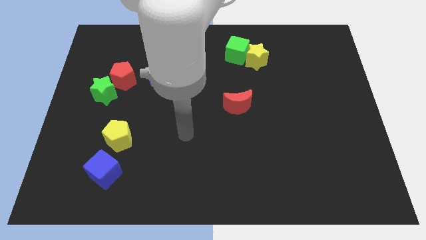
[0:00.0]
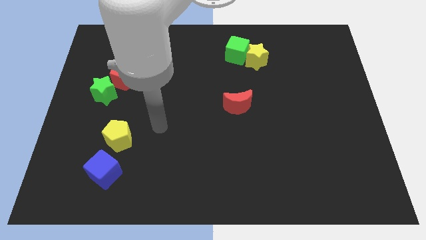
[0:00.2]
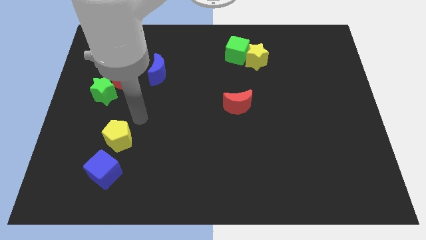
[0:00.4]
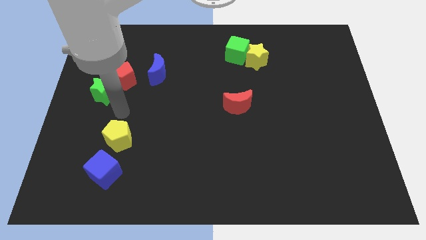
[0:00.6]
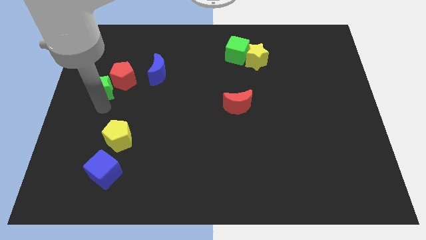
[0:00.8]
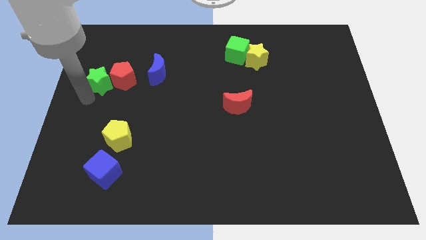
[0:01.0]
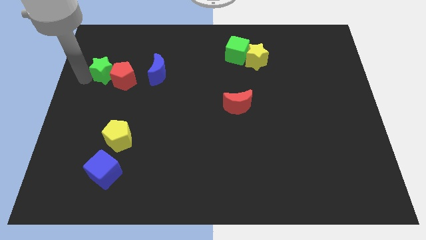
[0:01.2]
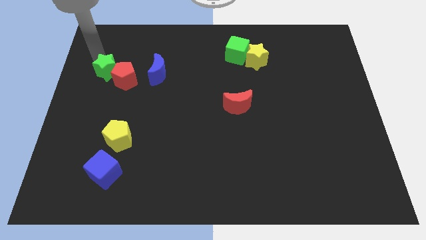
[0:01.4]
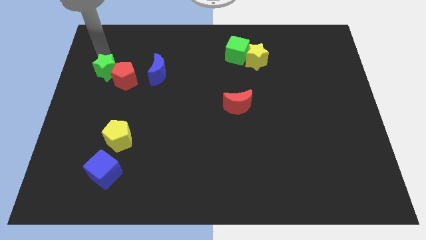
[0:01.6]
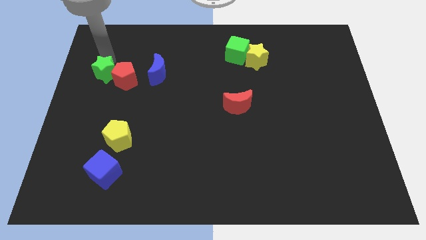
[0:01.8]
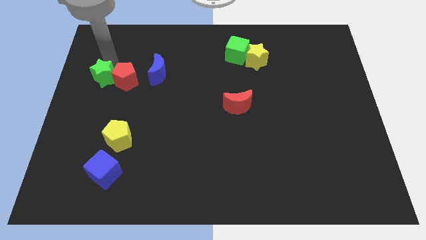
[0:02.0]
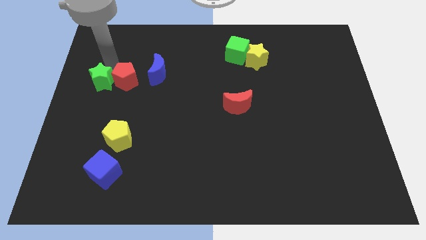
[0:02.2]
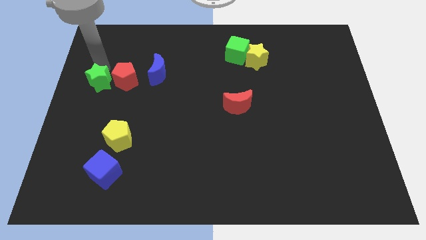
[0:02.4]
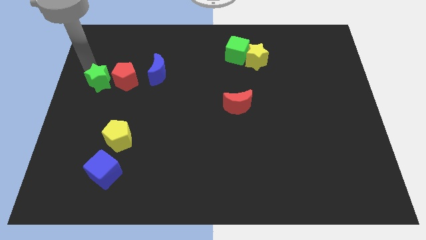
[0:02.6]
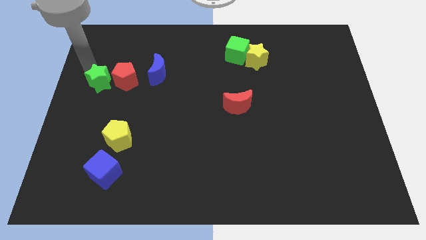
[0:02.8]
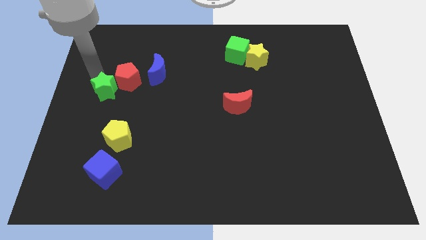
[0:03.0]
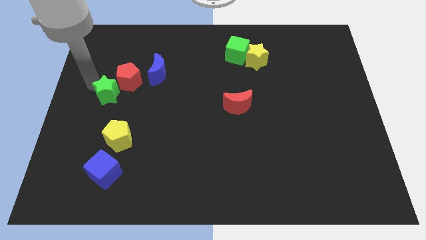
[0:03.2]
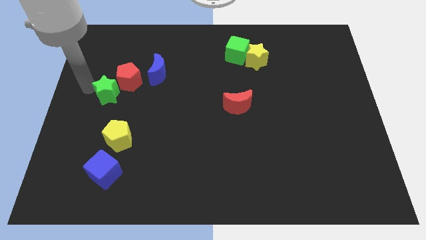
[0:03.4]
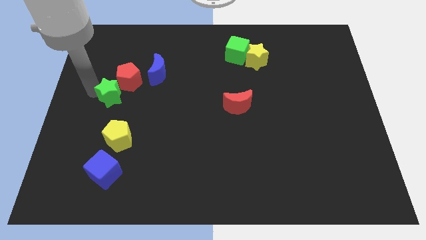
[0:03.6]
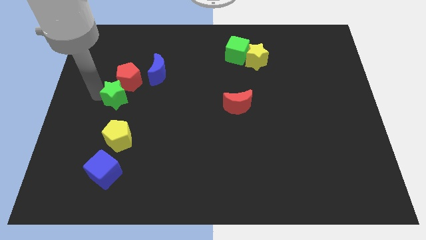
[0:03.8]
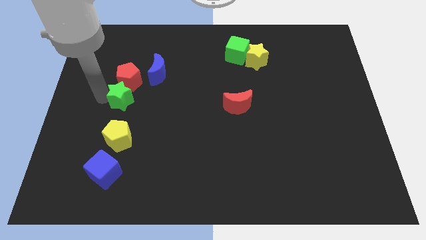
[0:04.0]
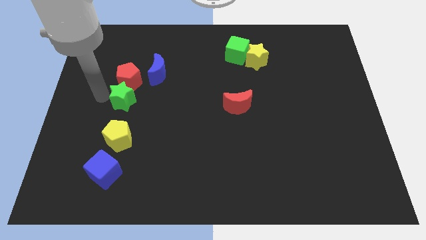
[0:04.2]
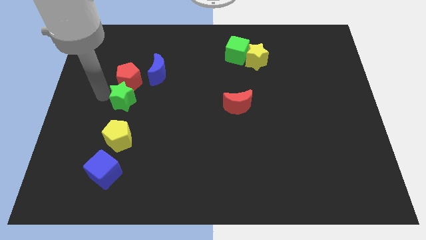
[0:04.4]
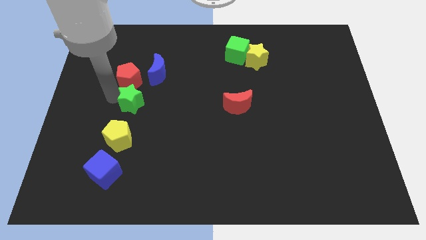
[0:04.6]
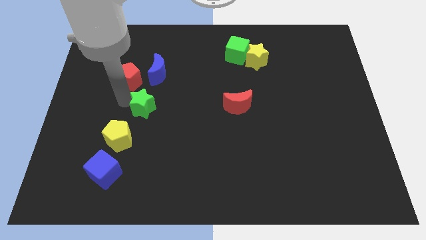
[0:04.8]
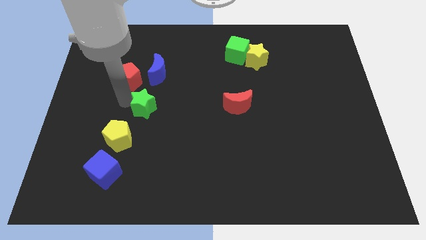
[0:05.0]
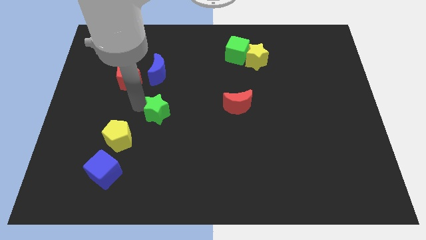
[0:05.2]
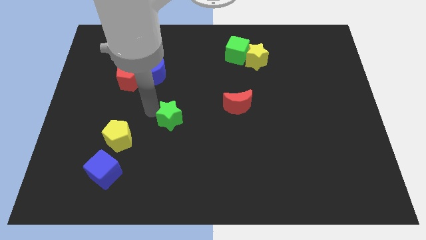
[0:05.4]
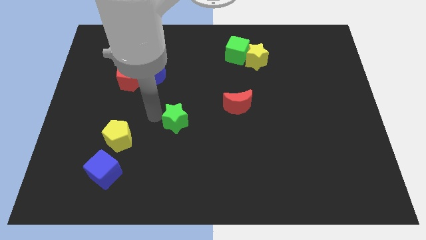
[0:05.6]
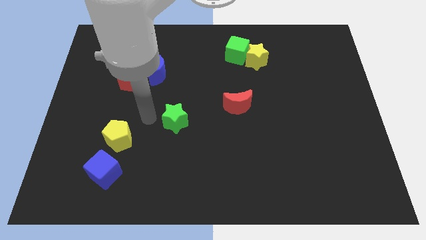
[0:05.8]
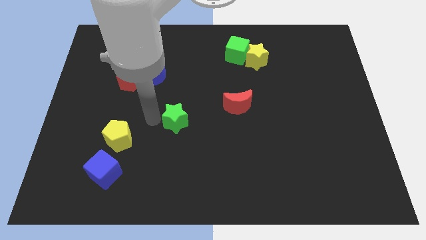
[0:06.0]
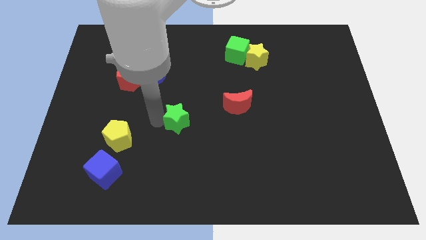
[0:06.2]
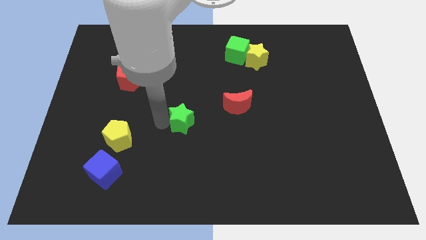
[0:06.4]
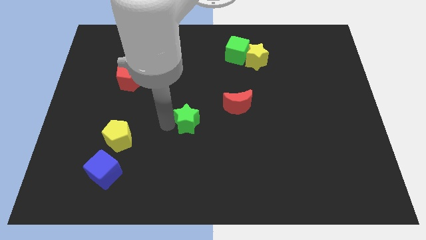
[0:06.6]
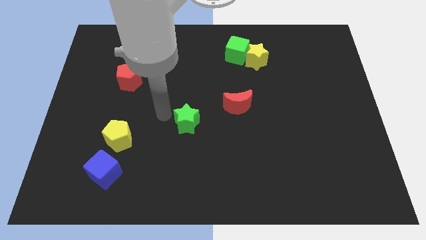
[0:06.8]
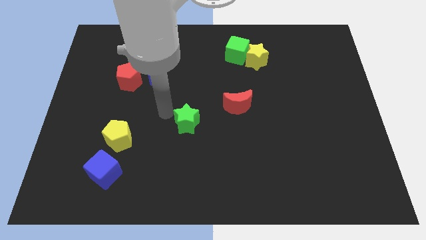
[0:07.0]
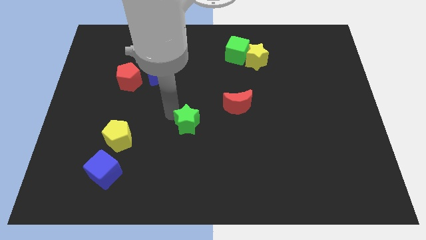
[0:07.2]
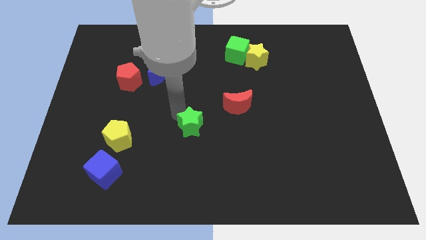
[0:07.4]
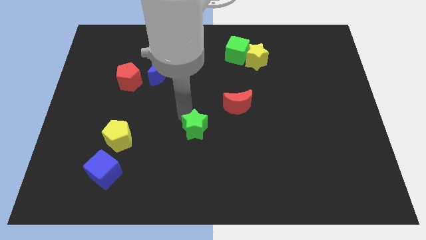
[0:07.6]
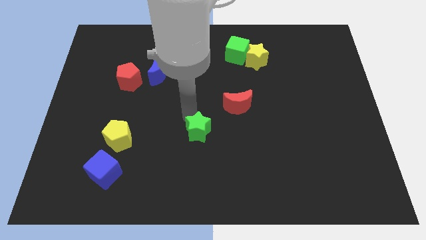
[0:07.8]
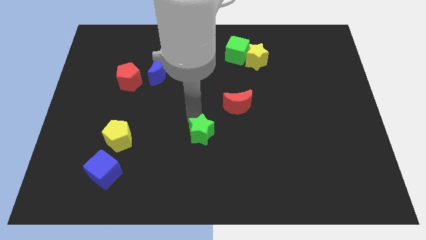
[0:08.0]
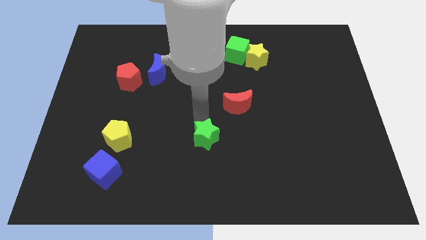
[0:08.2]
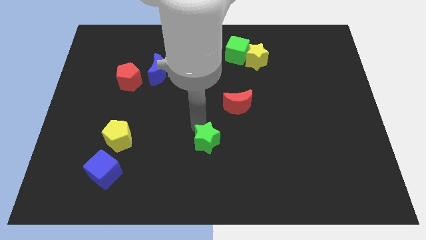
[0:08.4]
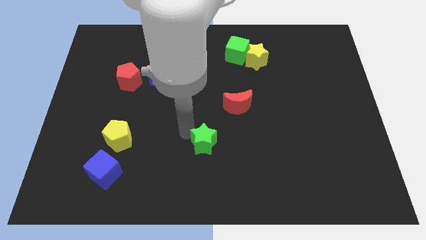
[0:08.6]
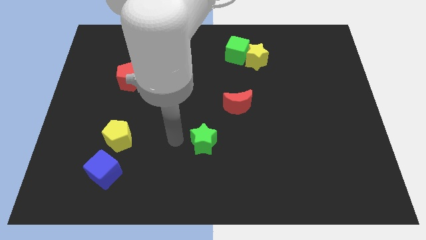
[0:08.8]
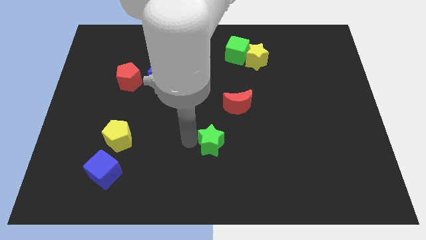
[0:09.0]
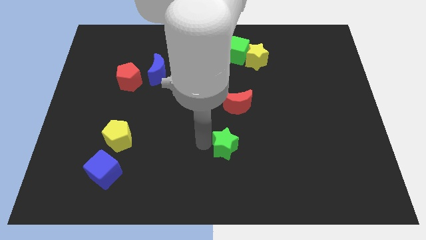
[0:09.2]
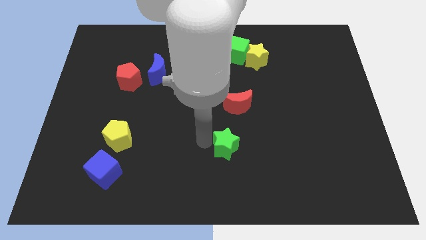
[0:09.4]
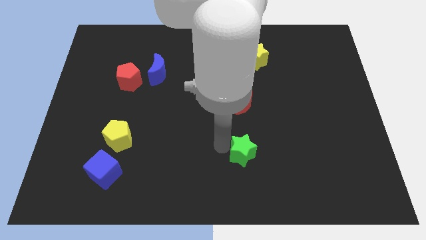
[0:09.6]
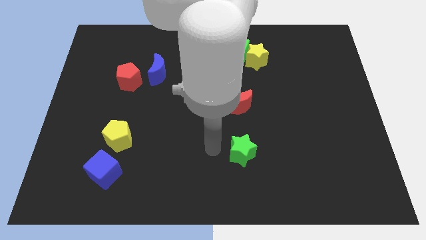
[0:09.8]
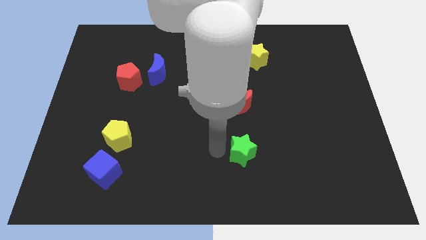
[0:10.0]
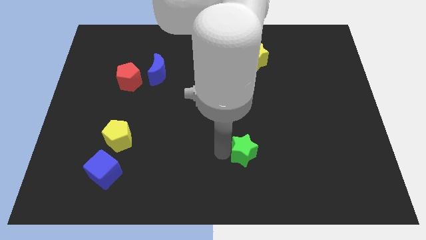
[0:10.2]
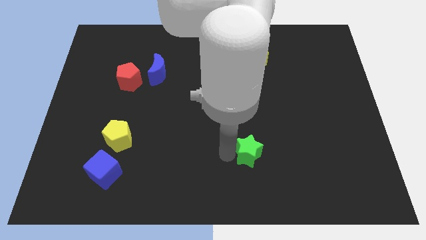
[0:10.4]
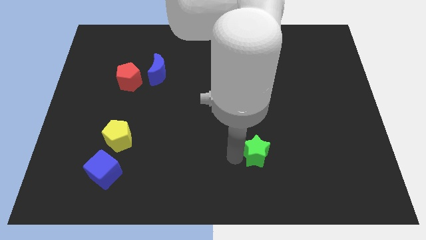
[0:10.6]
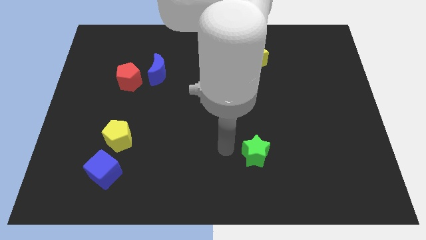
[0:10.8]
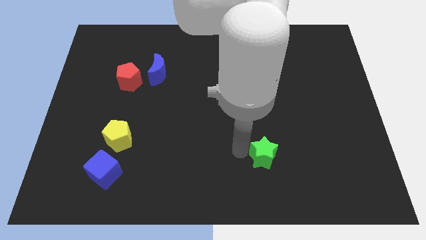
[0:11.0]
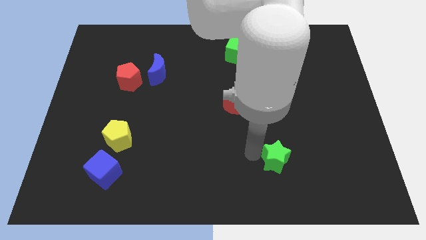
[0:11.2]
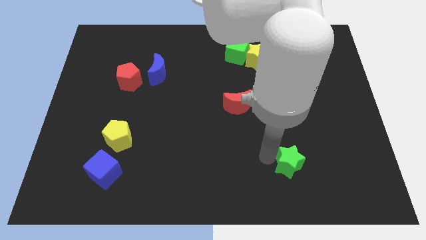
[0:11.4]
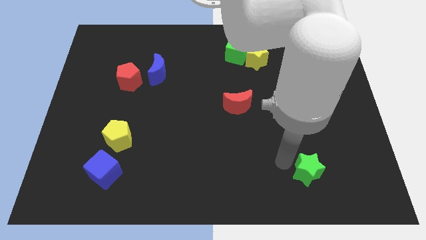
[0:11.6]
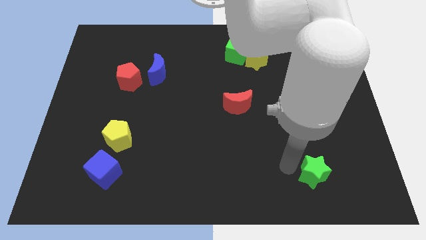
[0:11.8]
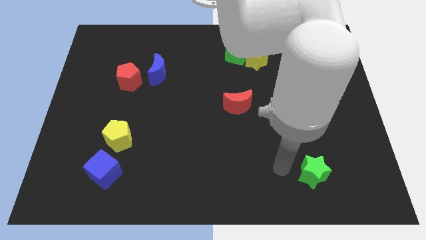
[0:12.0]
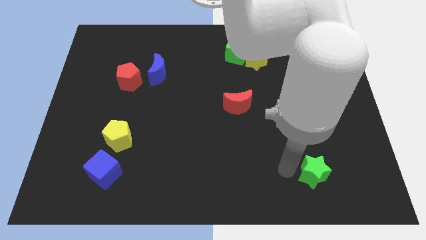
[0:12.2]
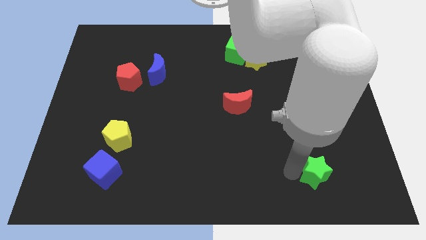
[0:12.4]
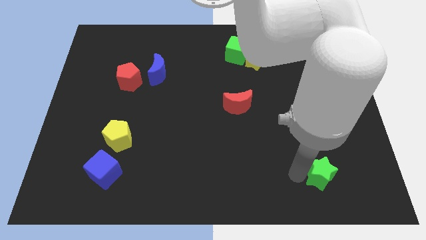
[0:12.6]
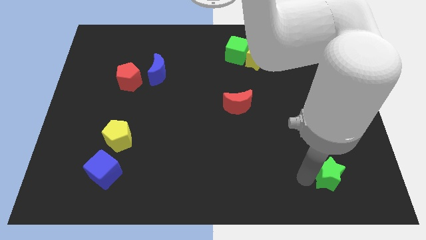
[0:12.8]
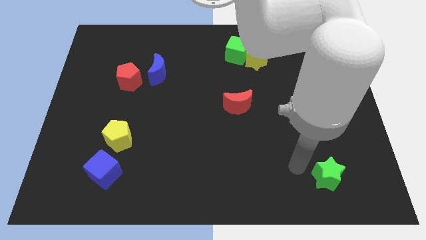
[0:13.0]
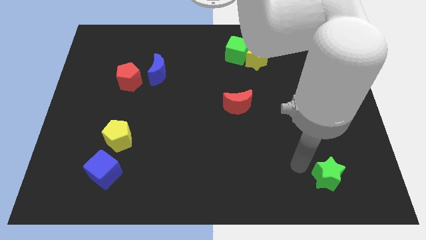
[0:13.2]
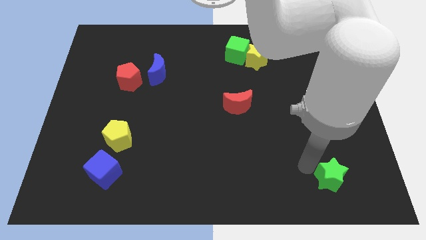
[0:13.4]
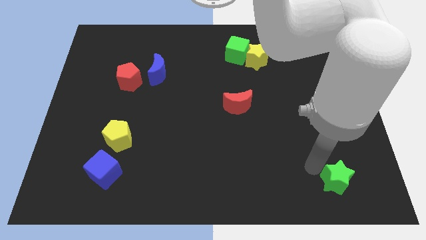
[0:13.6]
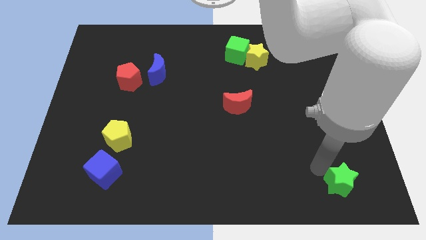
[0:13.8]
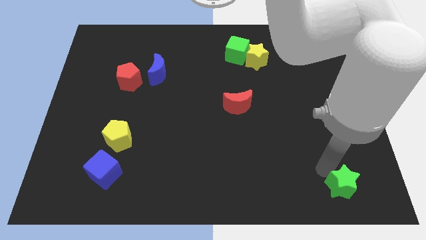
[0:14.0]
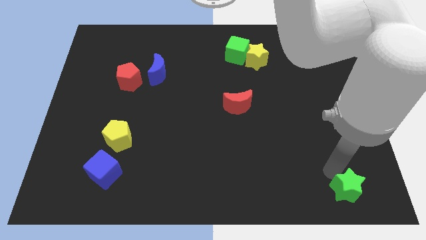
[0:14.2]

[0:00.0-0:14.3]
slide the green star to the lower right corner
